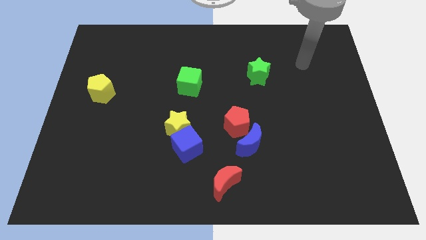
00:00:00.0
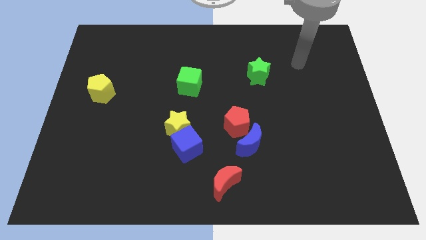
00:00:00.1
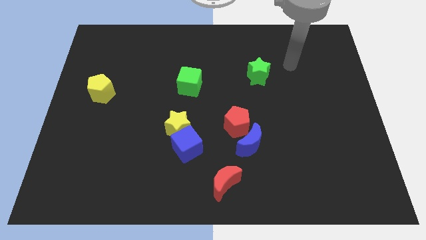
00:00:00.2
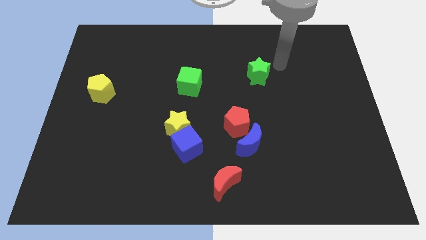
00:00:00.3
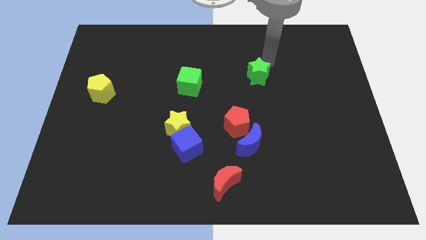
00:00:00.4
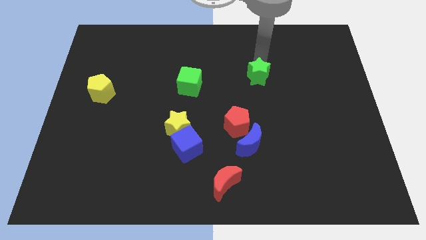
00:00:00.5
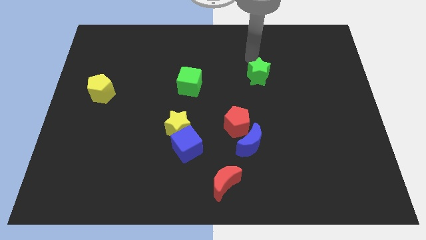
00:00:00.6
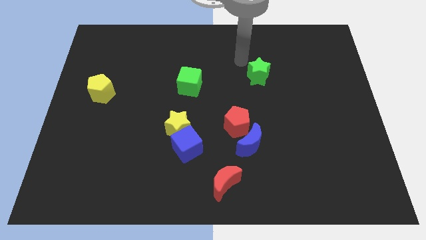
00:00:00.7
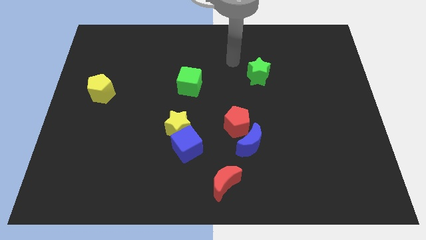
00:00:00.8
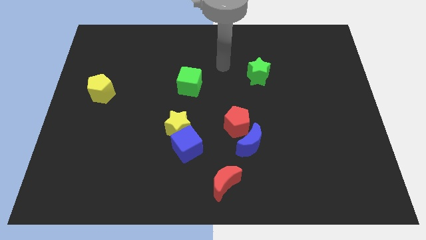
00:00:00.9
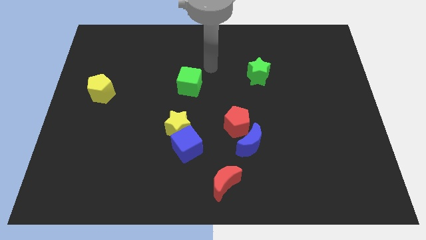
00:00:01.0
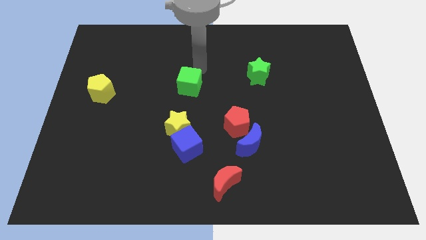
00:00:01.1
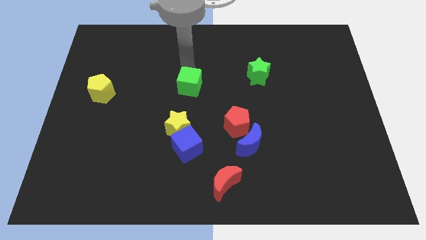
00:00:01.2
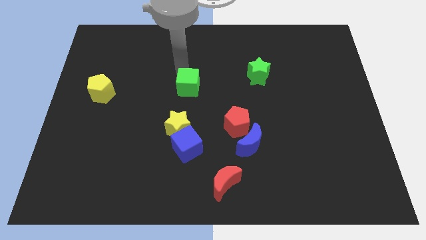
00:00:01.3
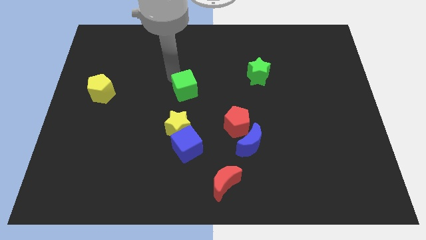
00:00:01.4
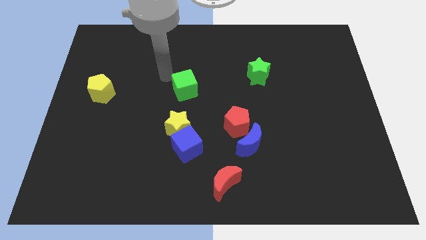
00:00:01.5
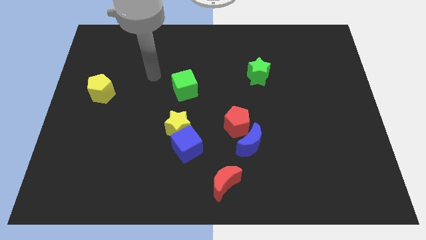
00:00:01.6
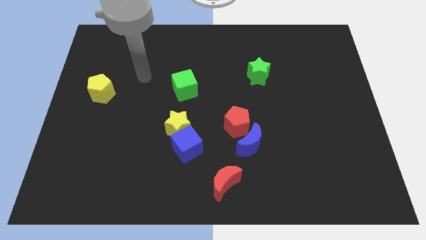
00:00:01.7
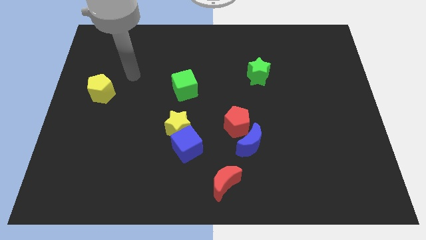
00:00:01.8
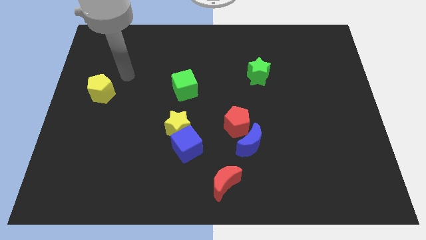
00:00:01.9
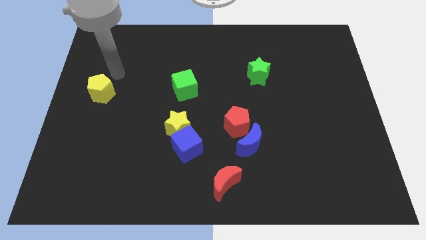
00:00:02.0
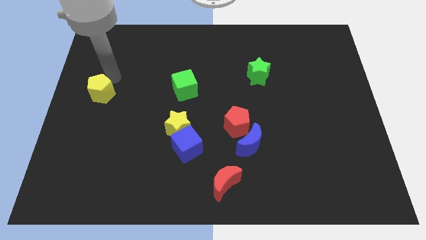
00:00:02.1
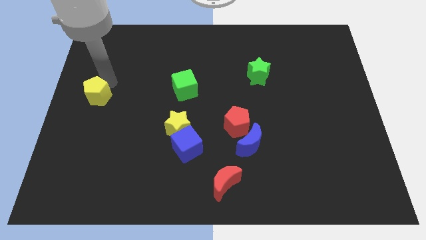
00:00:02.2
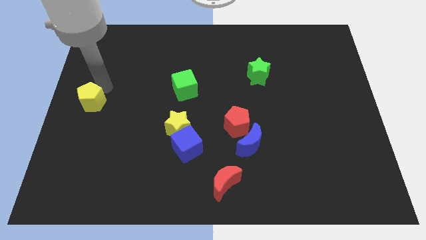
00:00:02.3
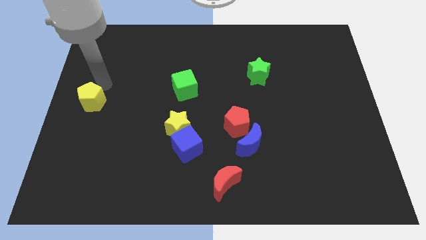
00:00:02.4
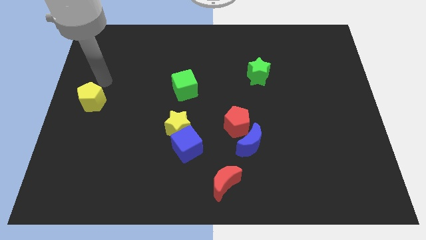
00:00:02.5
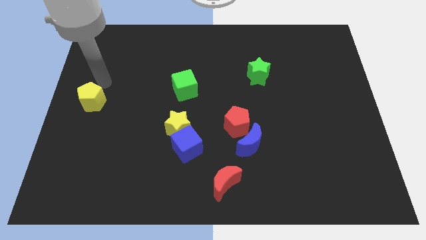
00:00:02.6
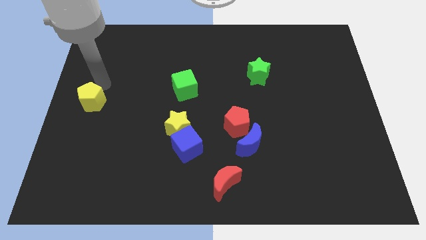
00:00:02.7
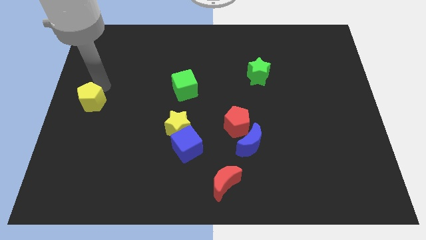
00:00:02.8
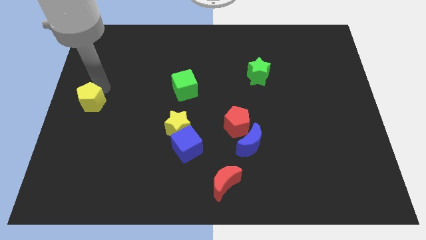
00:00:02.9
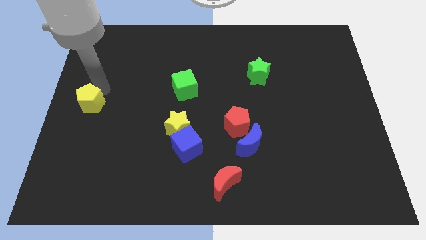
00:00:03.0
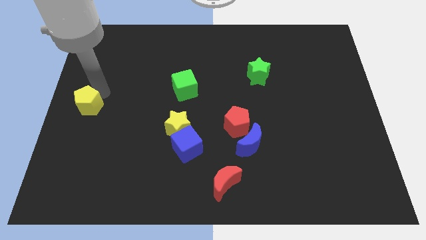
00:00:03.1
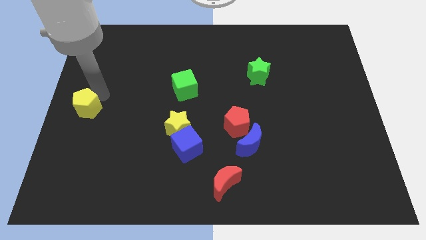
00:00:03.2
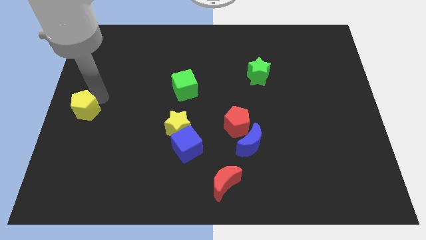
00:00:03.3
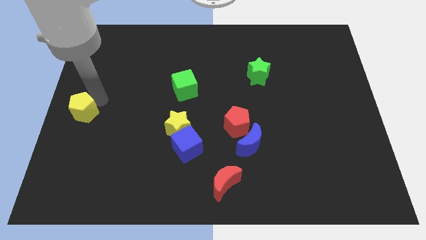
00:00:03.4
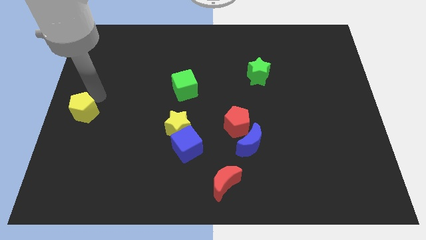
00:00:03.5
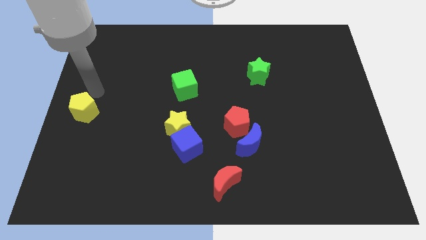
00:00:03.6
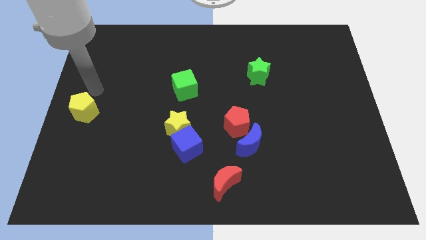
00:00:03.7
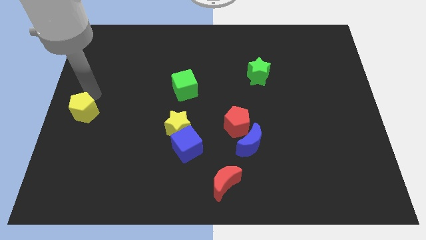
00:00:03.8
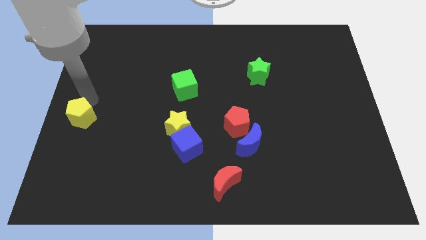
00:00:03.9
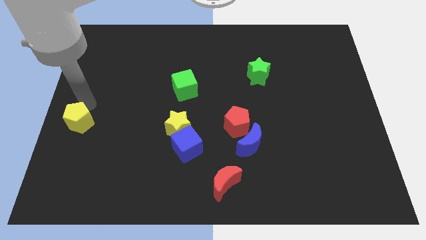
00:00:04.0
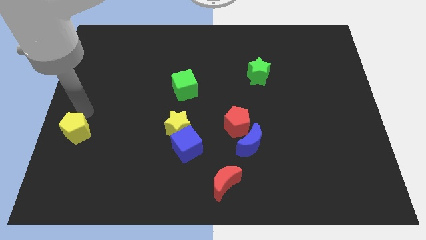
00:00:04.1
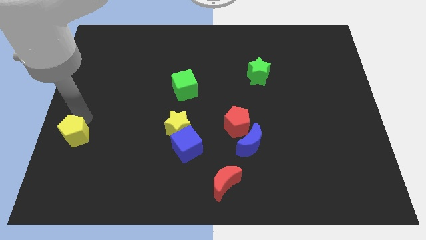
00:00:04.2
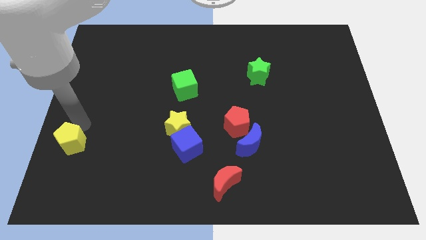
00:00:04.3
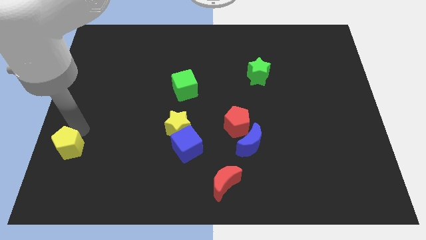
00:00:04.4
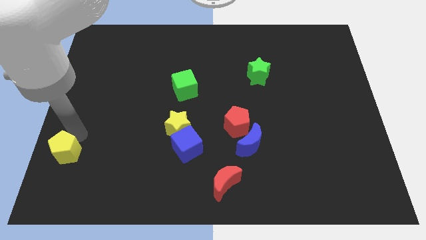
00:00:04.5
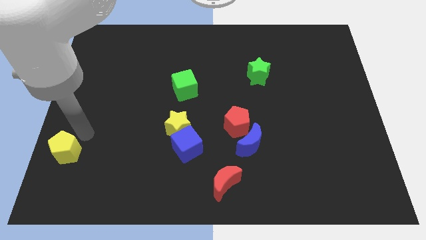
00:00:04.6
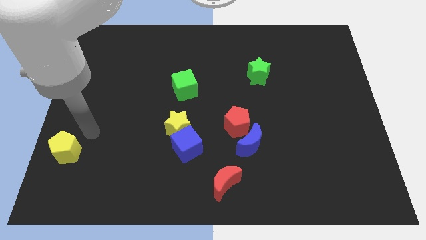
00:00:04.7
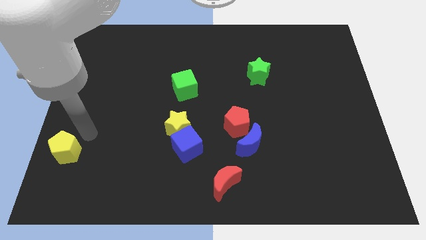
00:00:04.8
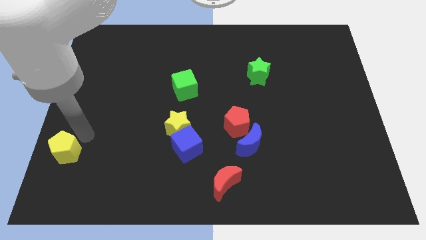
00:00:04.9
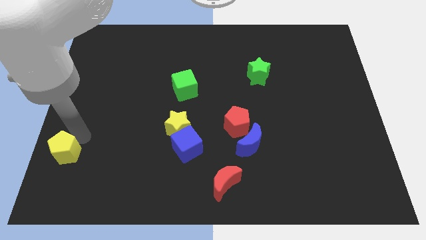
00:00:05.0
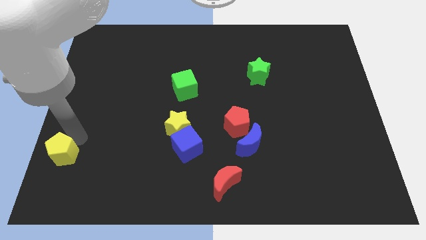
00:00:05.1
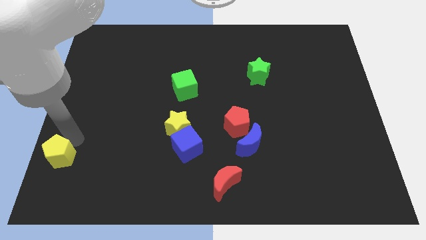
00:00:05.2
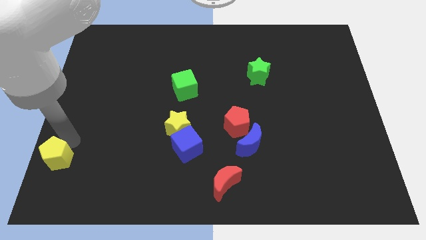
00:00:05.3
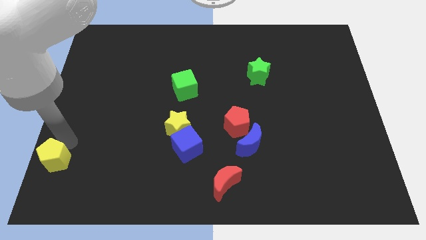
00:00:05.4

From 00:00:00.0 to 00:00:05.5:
move the yellow pentagon to the bottom left of the board
